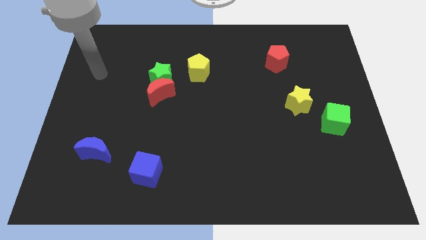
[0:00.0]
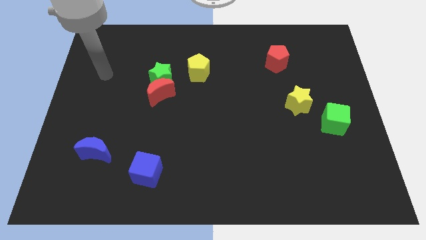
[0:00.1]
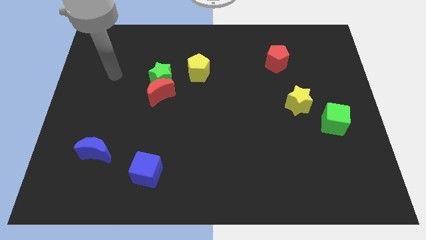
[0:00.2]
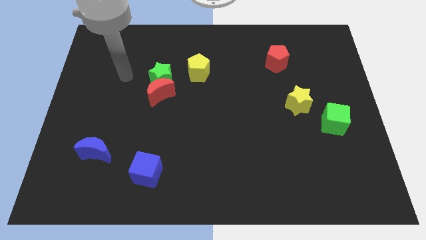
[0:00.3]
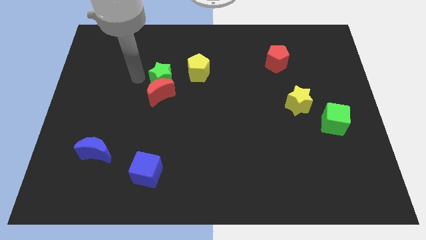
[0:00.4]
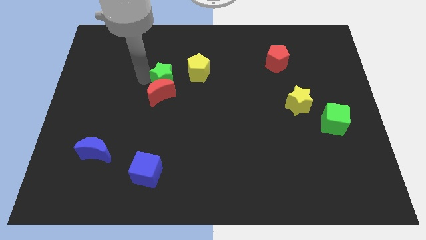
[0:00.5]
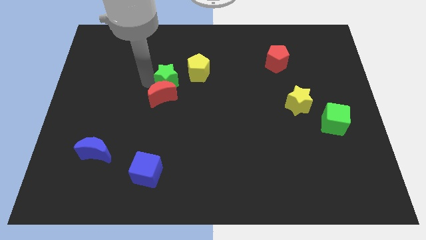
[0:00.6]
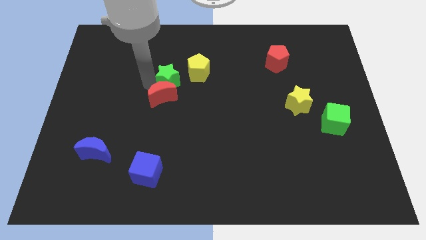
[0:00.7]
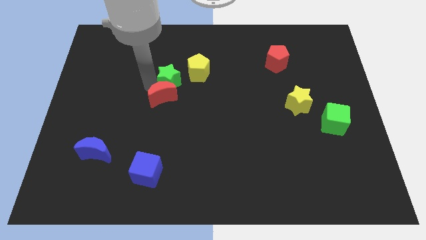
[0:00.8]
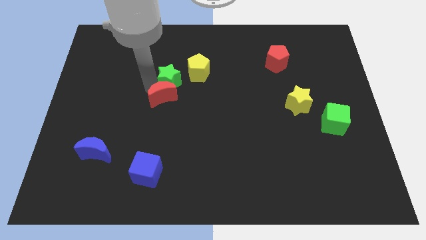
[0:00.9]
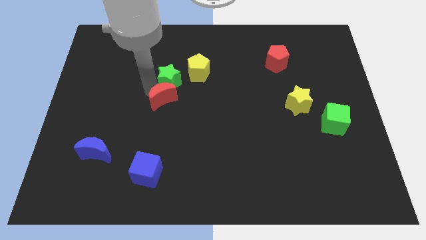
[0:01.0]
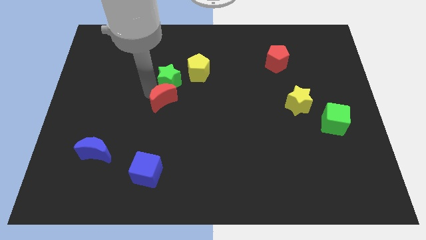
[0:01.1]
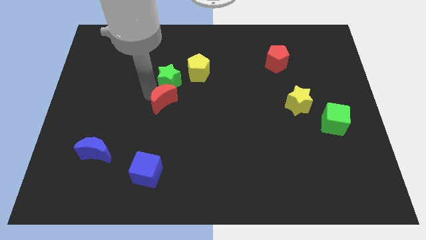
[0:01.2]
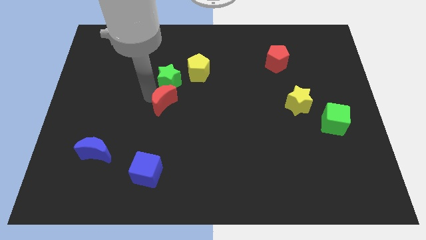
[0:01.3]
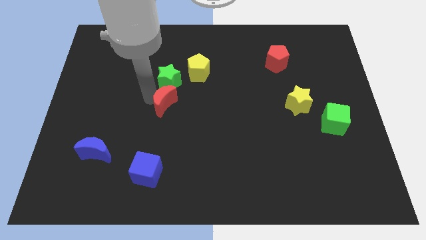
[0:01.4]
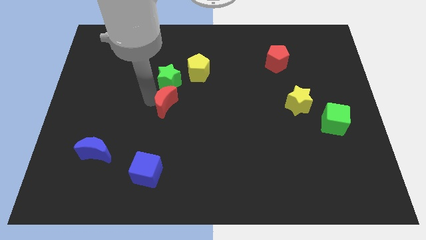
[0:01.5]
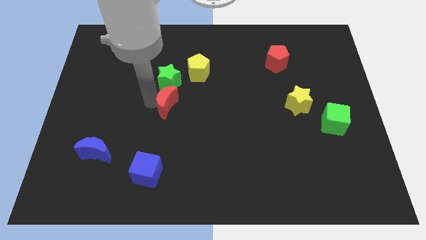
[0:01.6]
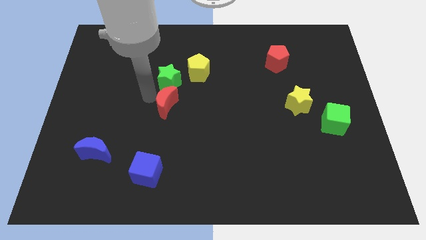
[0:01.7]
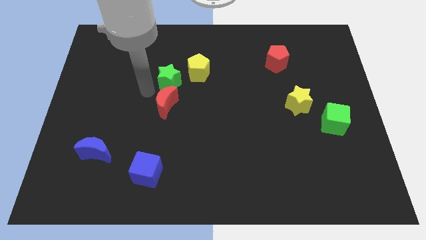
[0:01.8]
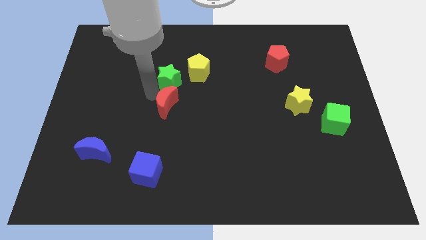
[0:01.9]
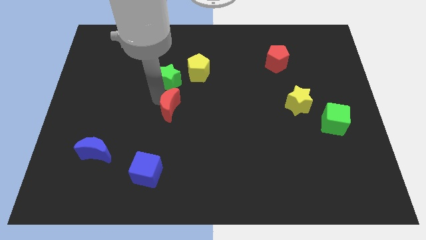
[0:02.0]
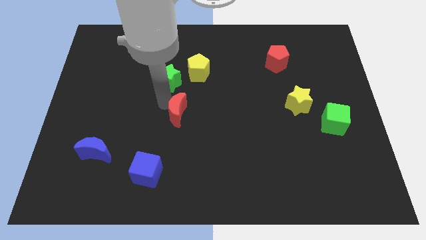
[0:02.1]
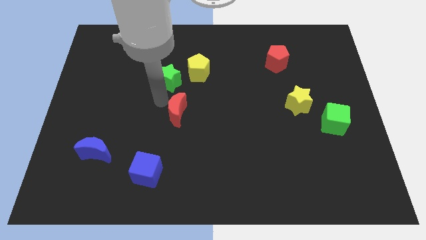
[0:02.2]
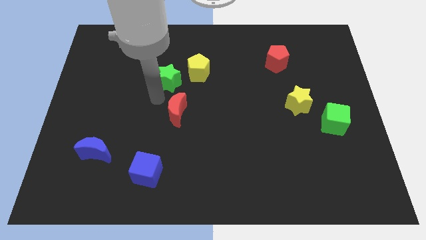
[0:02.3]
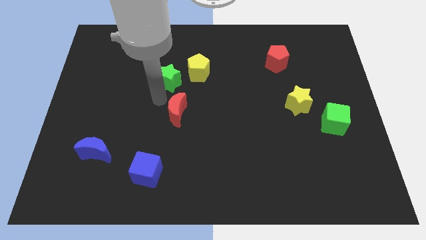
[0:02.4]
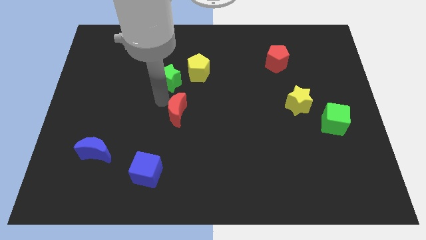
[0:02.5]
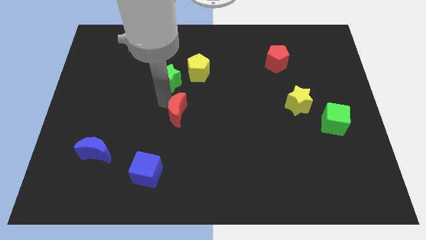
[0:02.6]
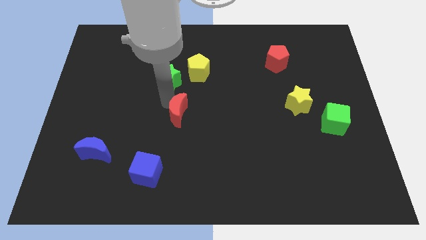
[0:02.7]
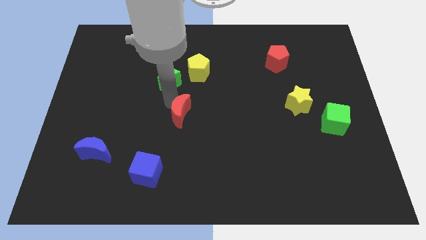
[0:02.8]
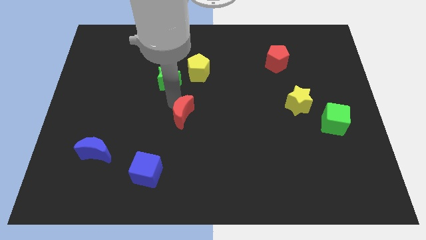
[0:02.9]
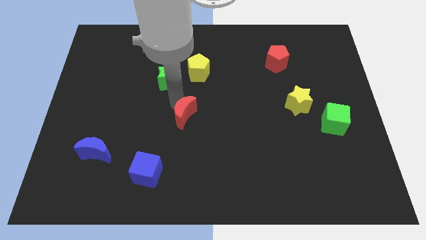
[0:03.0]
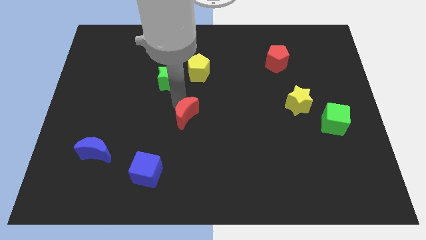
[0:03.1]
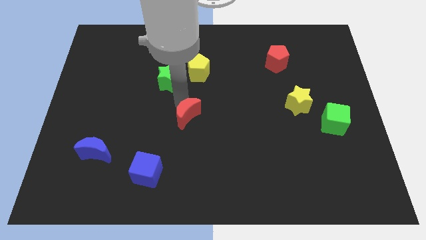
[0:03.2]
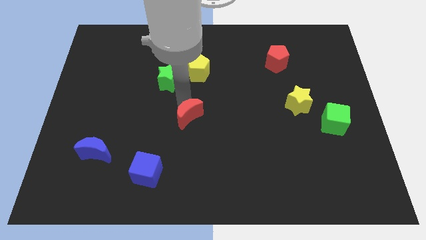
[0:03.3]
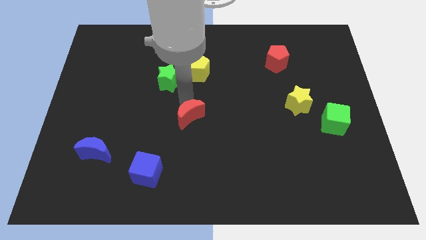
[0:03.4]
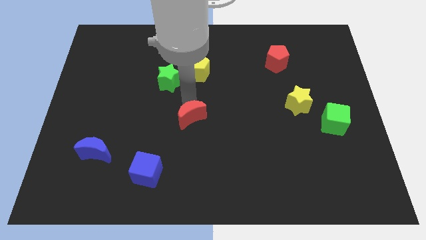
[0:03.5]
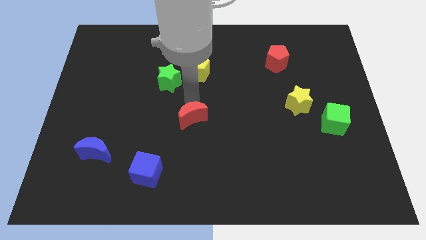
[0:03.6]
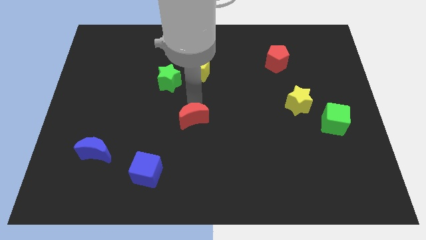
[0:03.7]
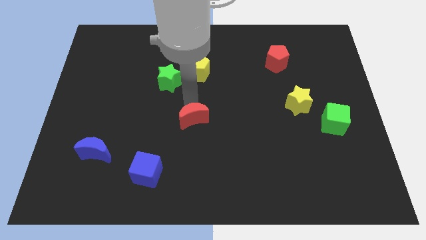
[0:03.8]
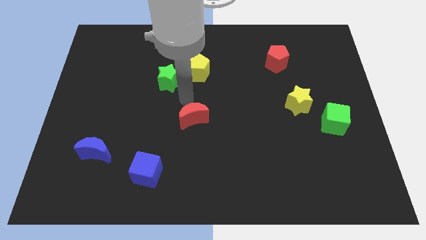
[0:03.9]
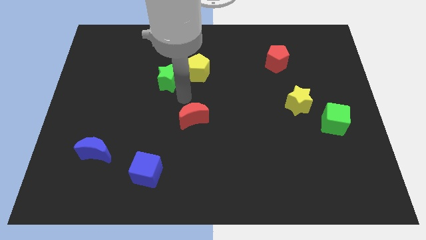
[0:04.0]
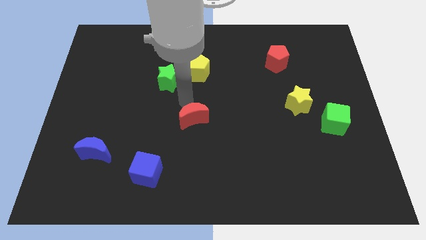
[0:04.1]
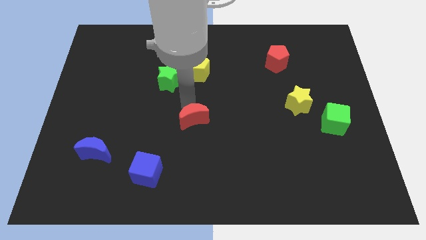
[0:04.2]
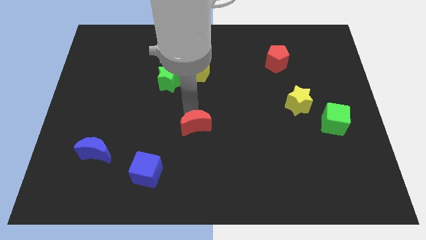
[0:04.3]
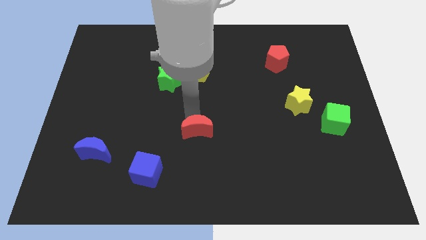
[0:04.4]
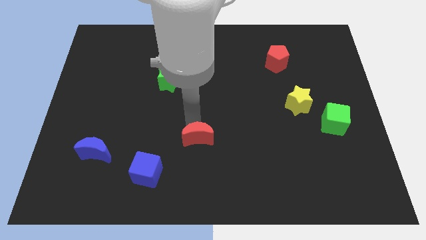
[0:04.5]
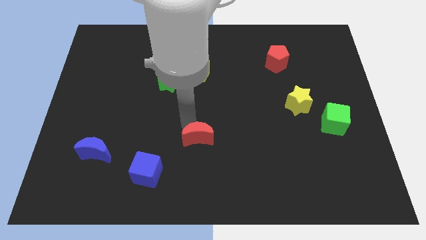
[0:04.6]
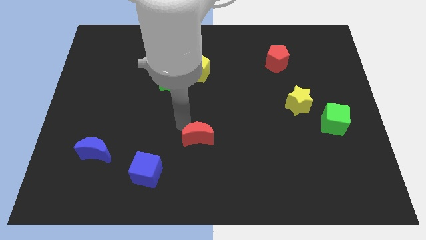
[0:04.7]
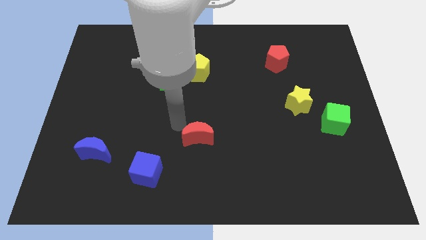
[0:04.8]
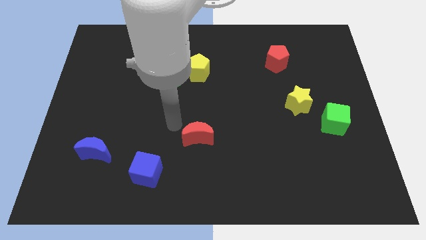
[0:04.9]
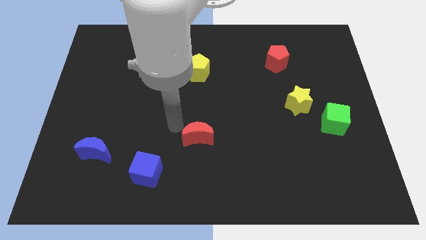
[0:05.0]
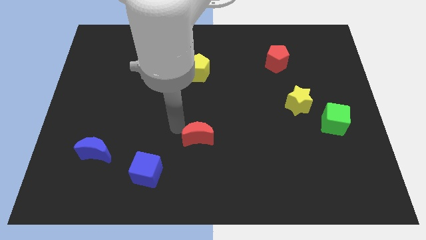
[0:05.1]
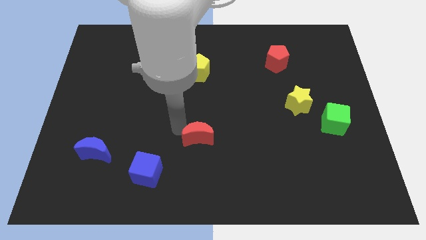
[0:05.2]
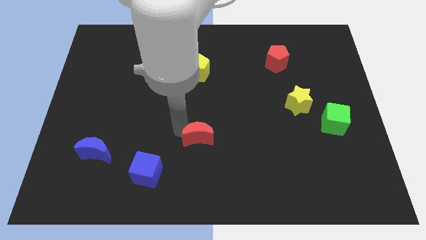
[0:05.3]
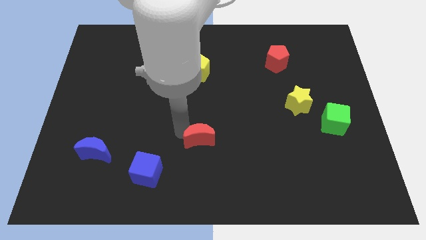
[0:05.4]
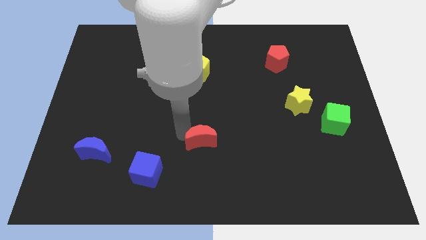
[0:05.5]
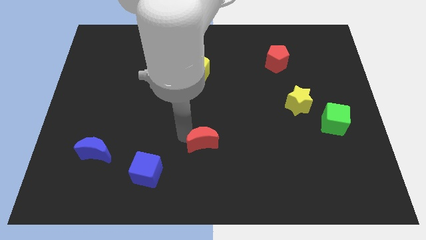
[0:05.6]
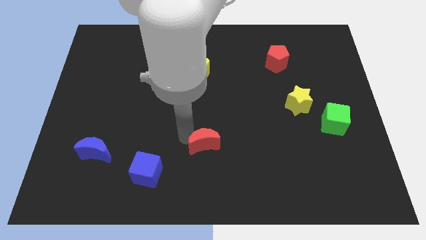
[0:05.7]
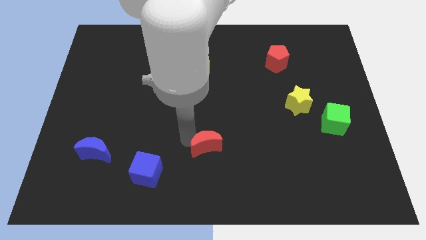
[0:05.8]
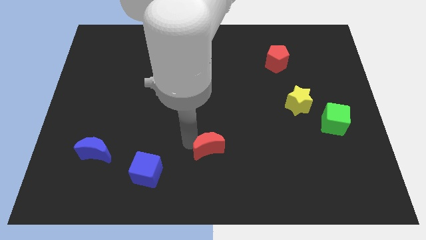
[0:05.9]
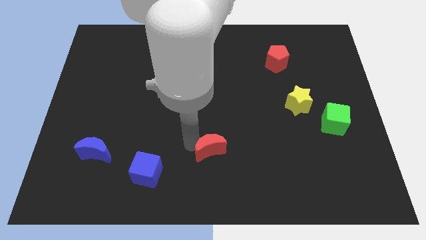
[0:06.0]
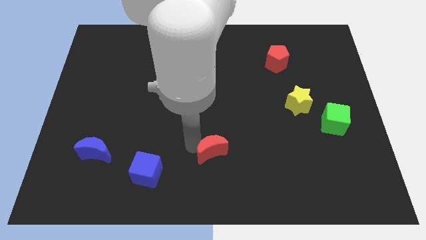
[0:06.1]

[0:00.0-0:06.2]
slide the red moon downwards and then right

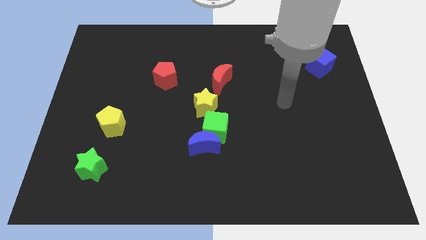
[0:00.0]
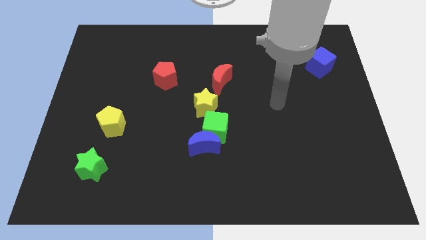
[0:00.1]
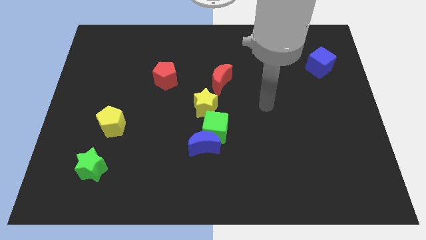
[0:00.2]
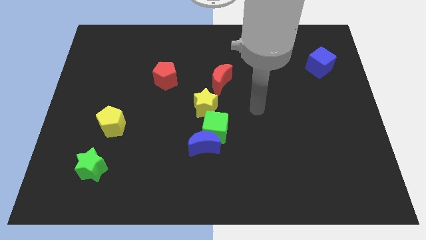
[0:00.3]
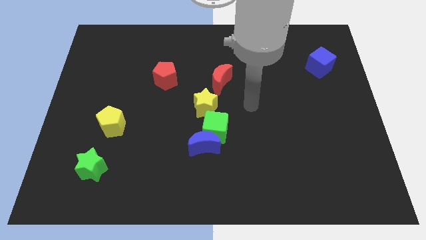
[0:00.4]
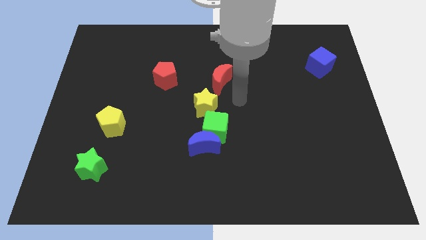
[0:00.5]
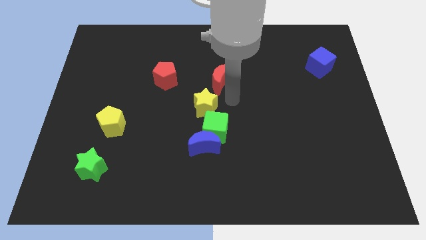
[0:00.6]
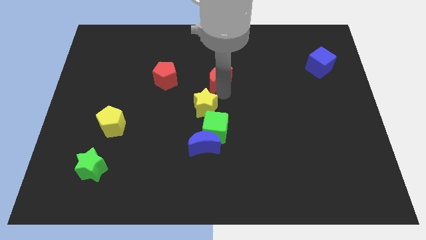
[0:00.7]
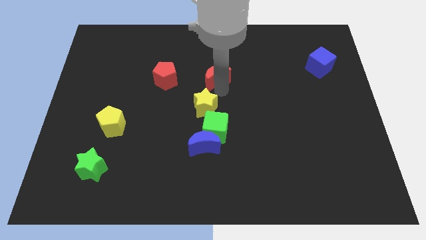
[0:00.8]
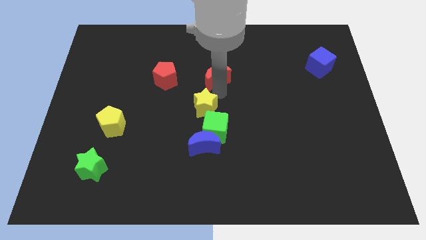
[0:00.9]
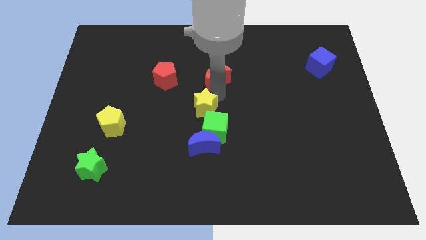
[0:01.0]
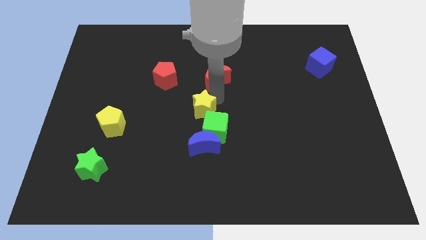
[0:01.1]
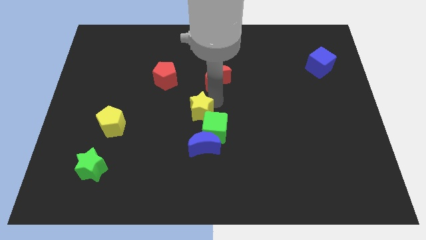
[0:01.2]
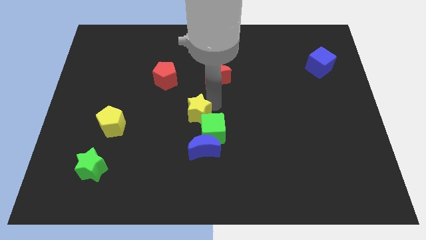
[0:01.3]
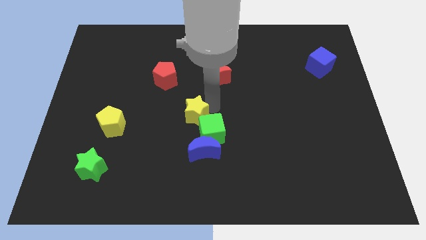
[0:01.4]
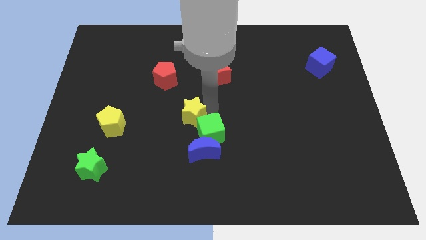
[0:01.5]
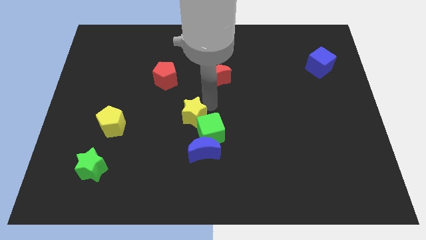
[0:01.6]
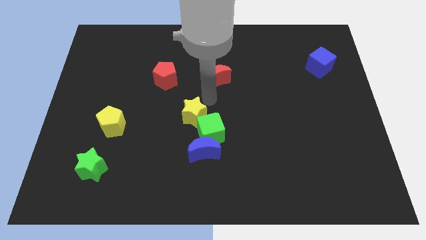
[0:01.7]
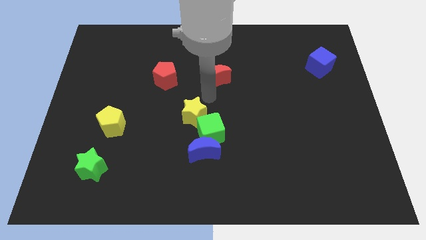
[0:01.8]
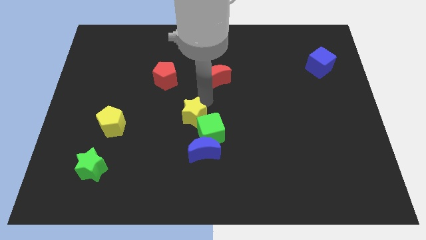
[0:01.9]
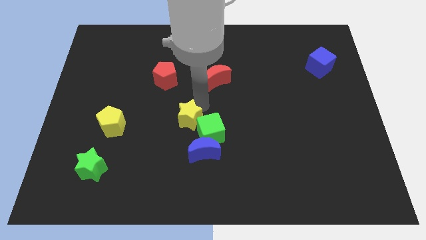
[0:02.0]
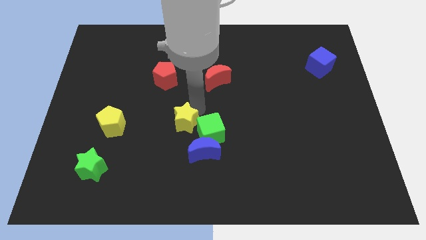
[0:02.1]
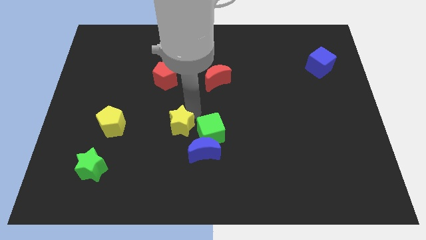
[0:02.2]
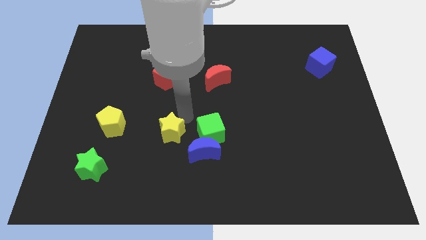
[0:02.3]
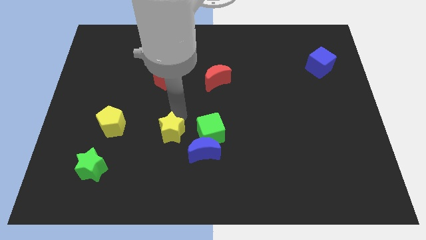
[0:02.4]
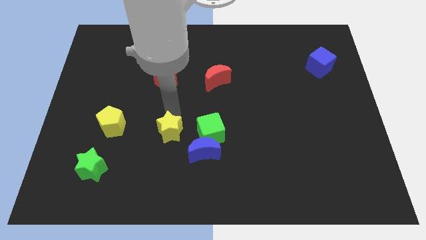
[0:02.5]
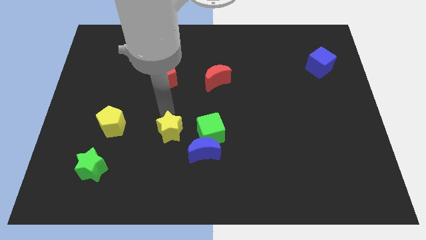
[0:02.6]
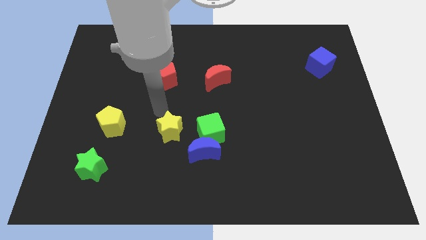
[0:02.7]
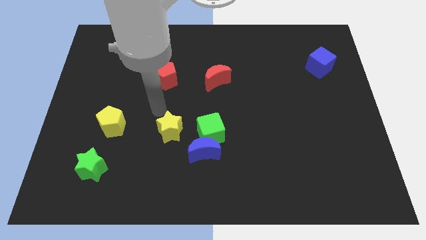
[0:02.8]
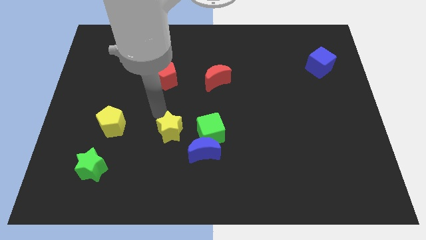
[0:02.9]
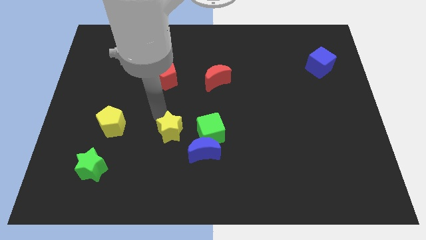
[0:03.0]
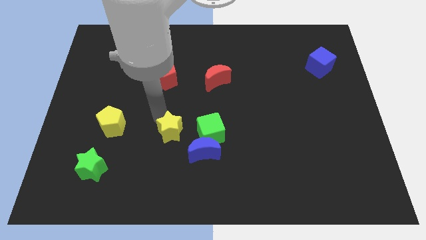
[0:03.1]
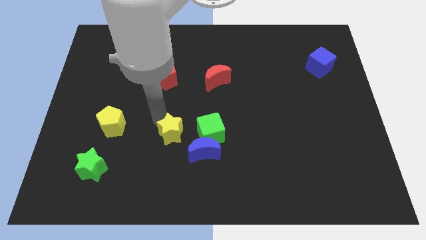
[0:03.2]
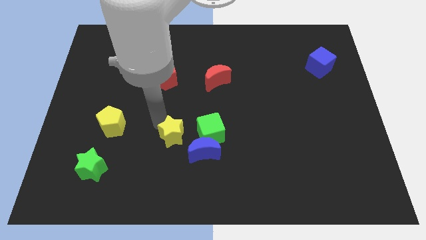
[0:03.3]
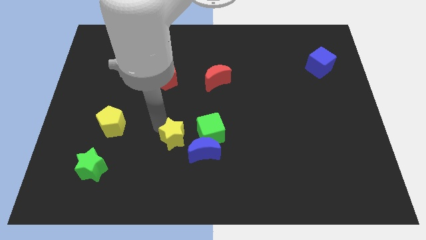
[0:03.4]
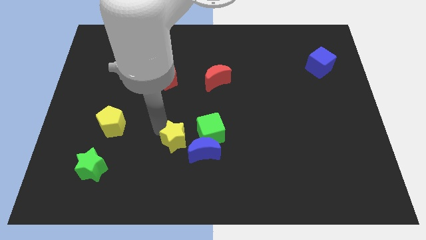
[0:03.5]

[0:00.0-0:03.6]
move the yellow star down a little
